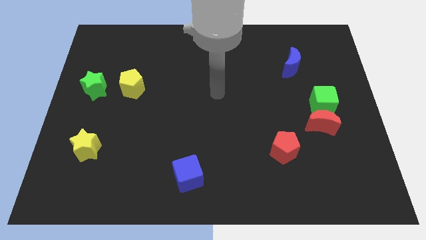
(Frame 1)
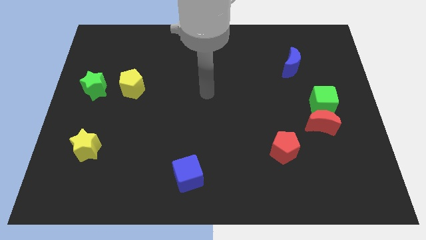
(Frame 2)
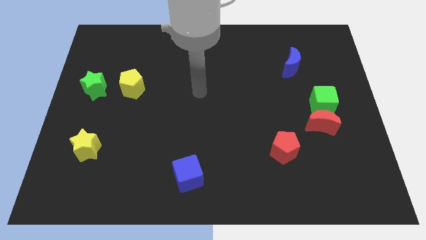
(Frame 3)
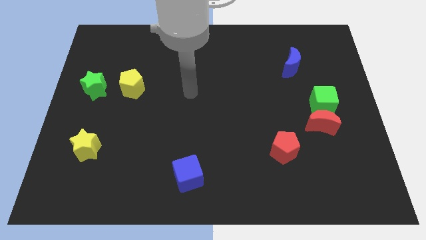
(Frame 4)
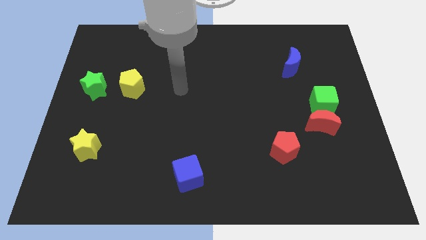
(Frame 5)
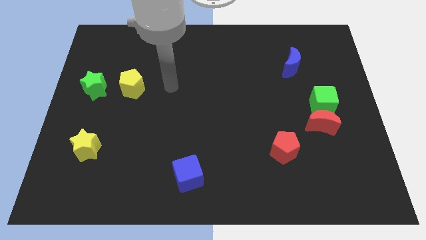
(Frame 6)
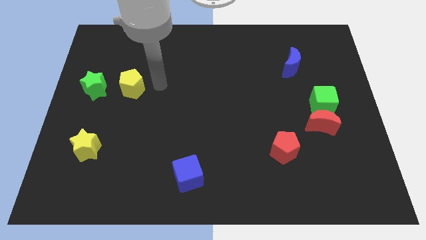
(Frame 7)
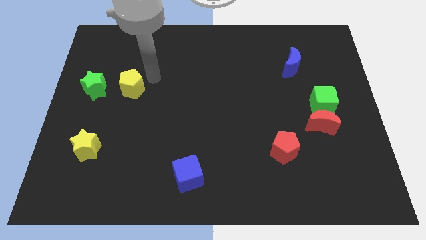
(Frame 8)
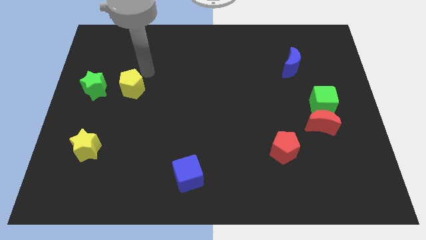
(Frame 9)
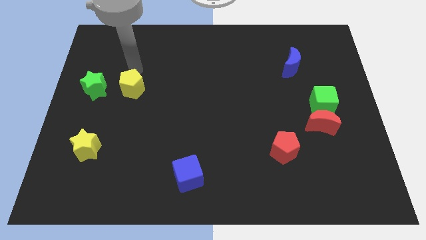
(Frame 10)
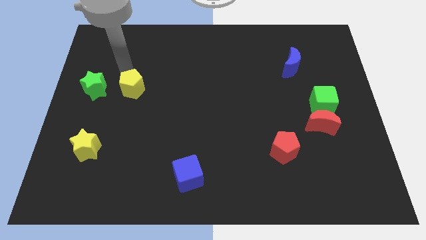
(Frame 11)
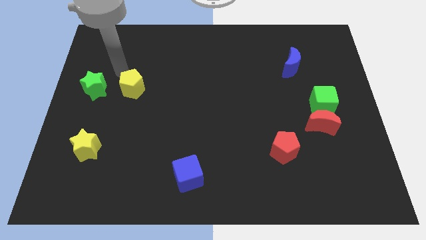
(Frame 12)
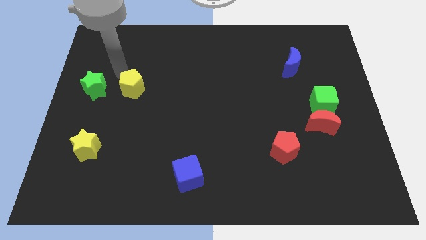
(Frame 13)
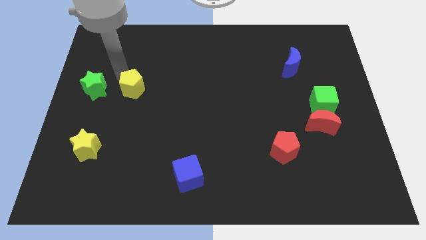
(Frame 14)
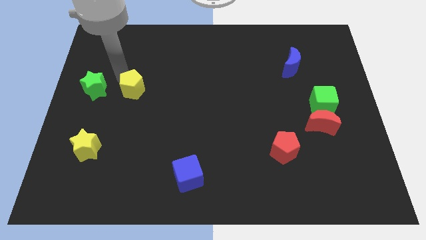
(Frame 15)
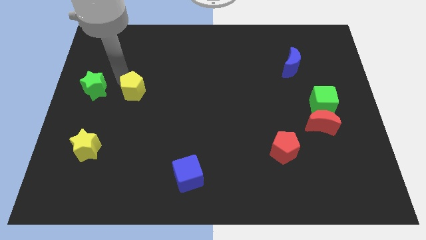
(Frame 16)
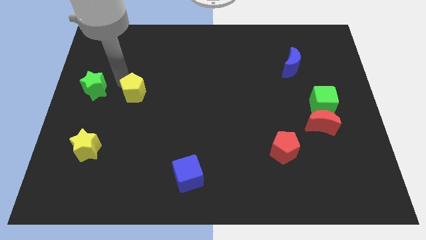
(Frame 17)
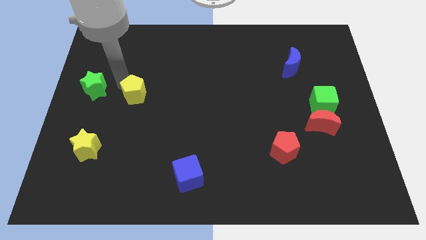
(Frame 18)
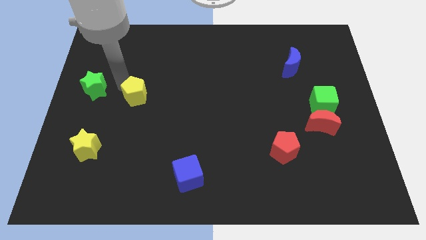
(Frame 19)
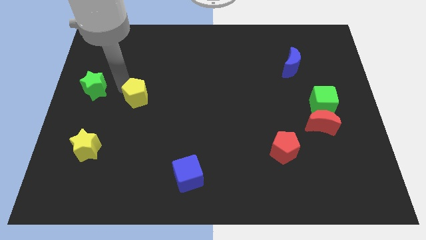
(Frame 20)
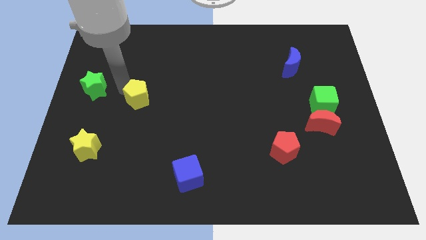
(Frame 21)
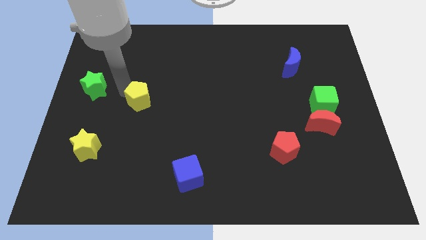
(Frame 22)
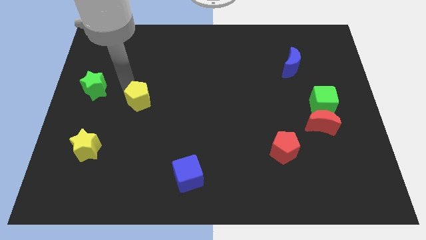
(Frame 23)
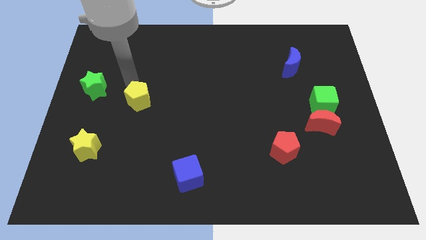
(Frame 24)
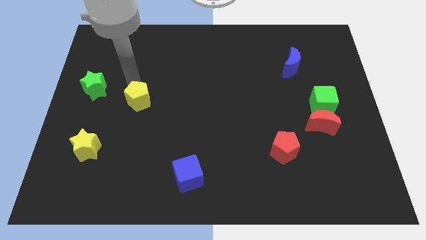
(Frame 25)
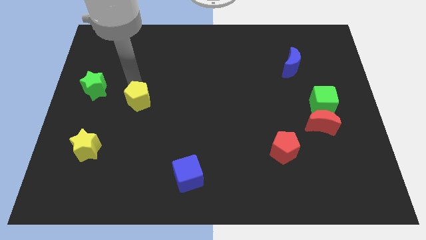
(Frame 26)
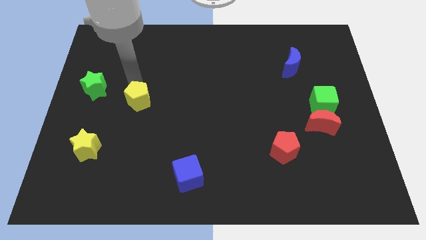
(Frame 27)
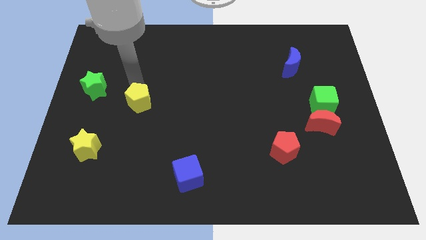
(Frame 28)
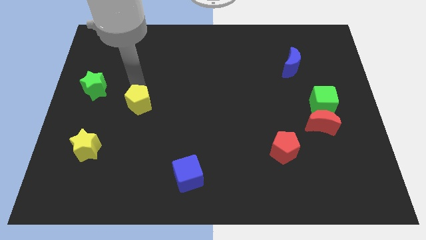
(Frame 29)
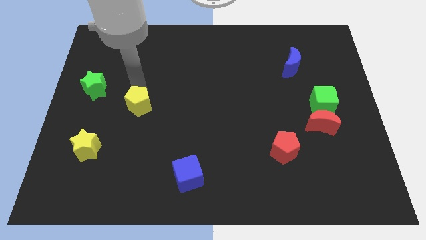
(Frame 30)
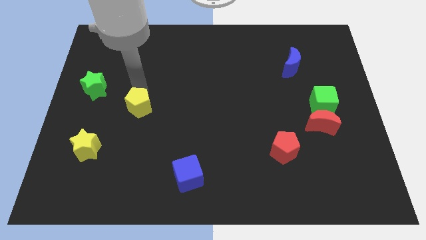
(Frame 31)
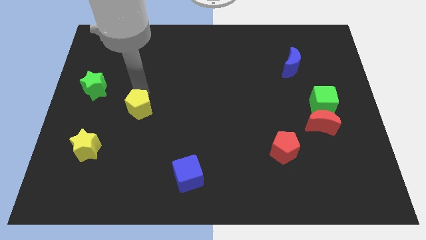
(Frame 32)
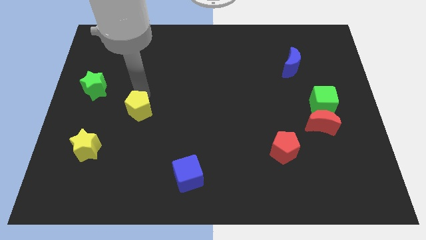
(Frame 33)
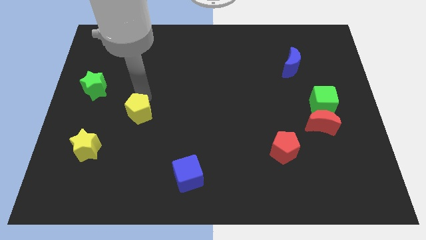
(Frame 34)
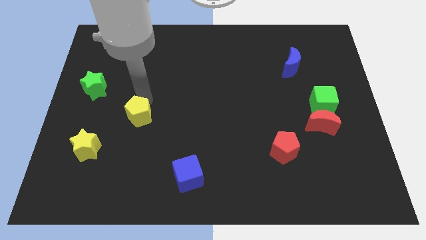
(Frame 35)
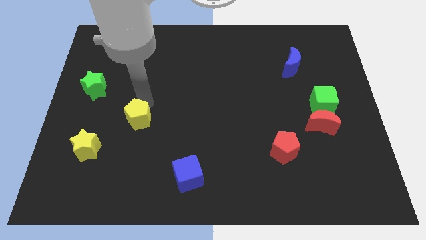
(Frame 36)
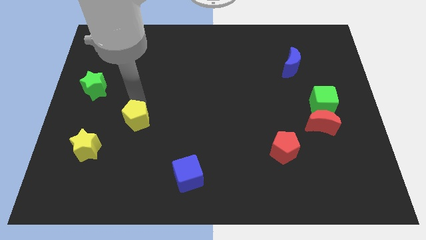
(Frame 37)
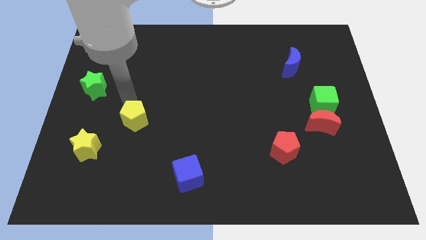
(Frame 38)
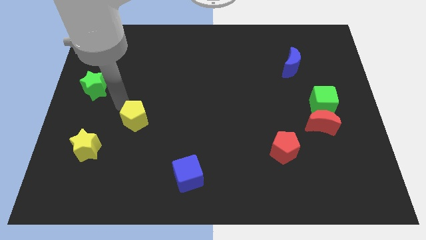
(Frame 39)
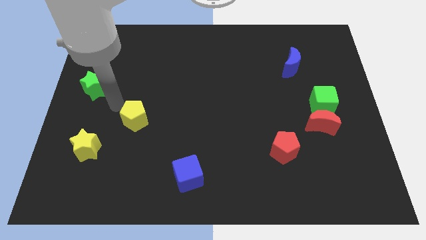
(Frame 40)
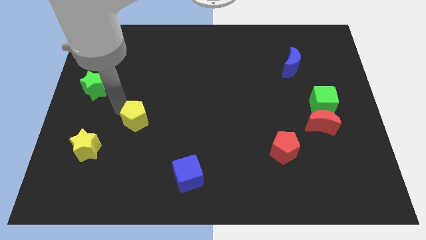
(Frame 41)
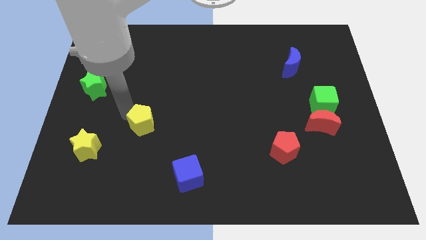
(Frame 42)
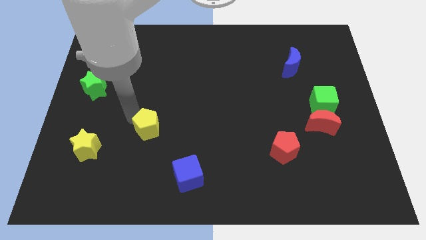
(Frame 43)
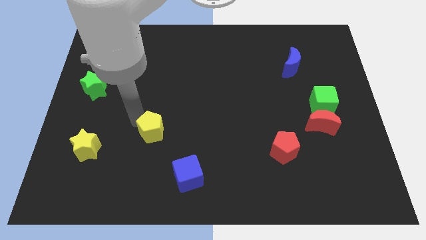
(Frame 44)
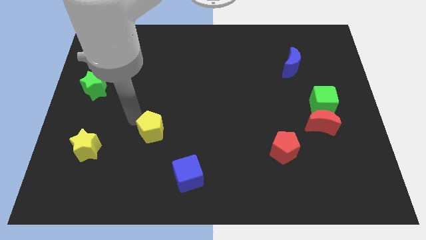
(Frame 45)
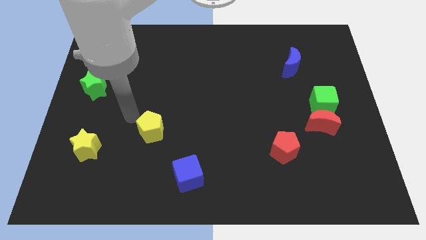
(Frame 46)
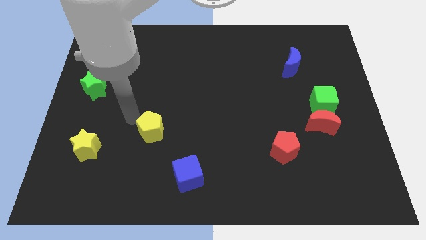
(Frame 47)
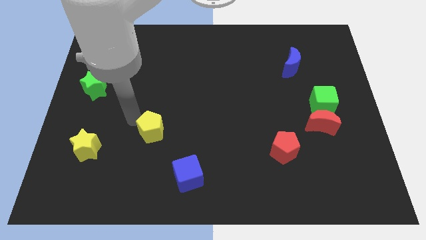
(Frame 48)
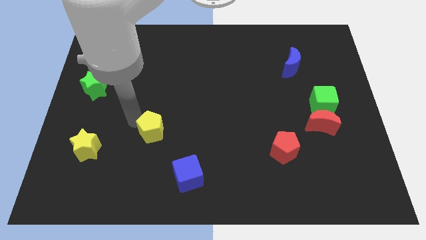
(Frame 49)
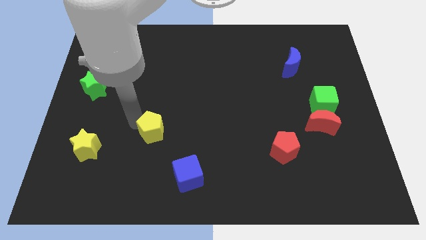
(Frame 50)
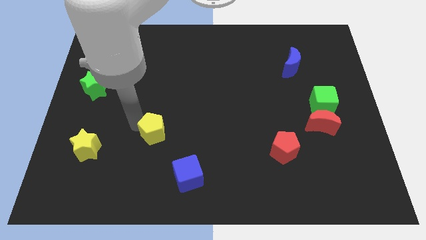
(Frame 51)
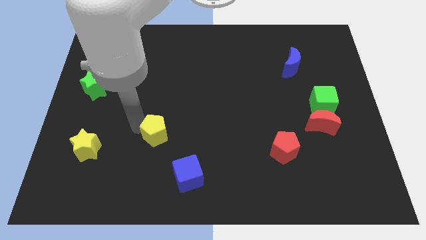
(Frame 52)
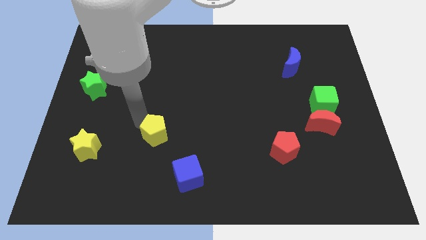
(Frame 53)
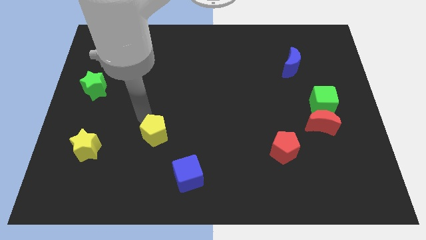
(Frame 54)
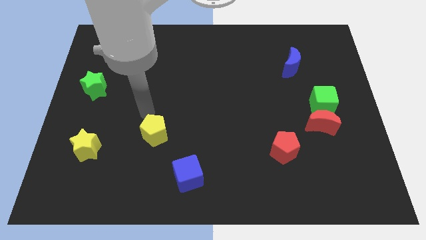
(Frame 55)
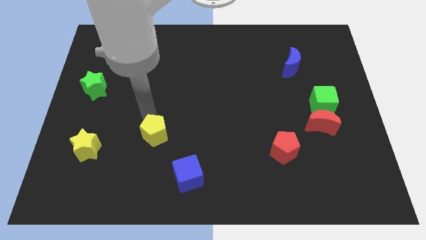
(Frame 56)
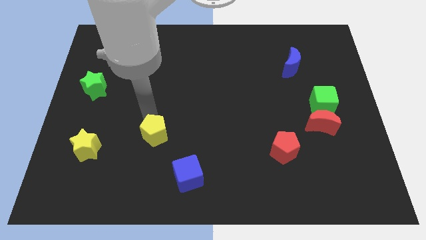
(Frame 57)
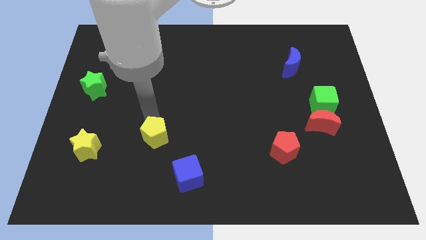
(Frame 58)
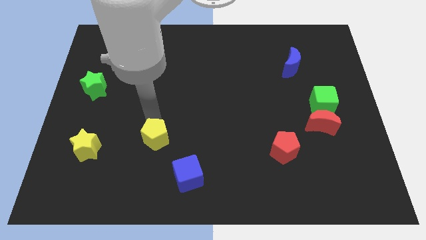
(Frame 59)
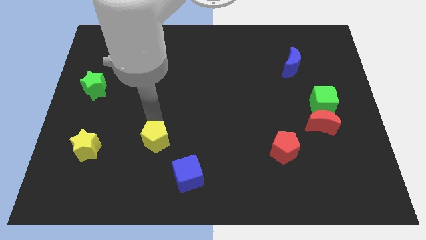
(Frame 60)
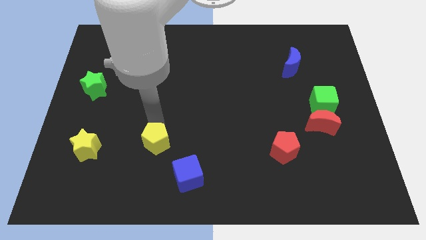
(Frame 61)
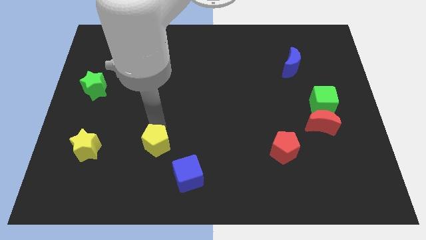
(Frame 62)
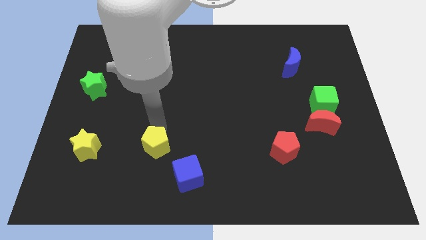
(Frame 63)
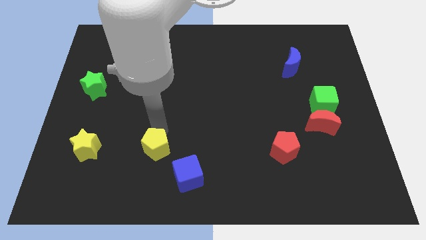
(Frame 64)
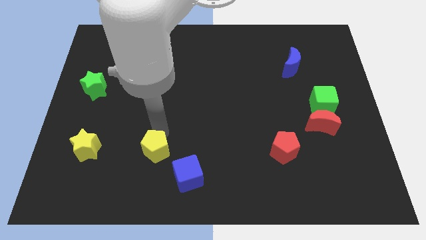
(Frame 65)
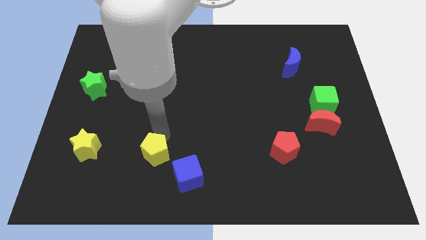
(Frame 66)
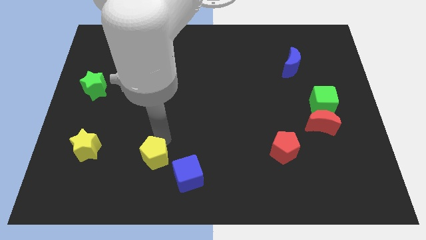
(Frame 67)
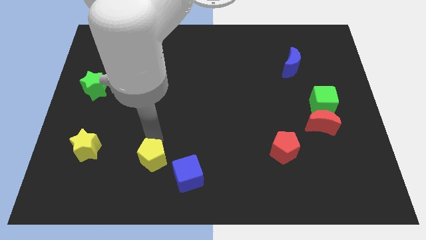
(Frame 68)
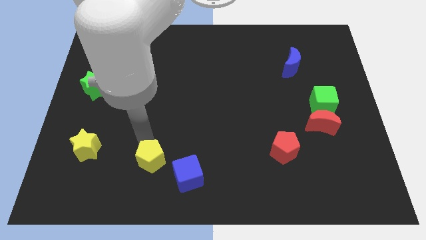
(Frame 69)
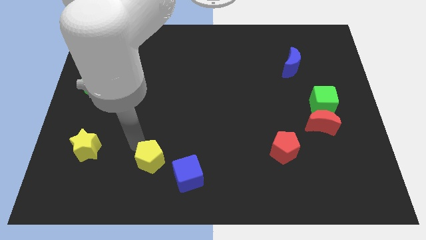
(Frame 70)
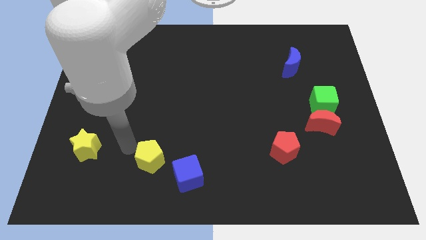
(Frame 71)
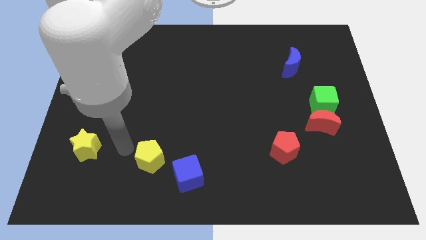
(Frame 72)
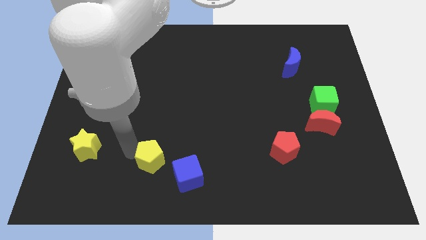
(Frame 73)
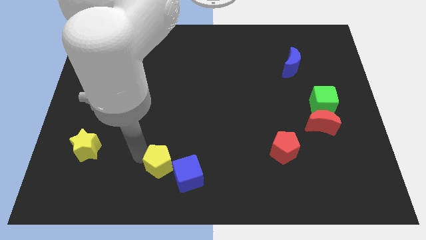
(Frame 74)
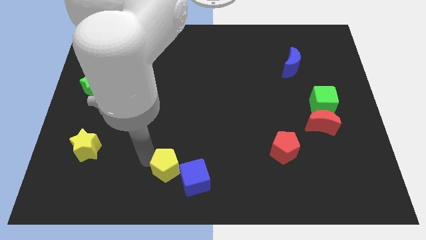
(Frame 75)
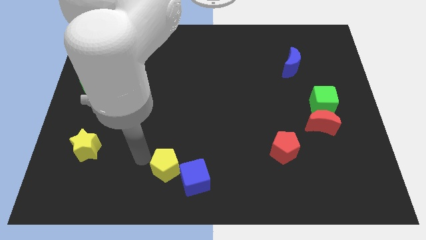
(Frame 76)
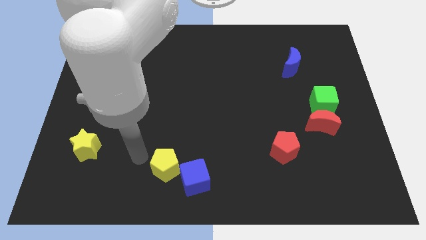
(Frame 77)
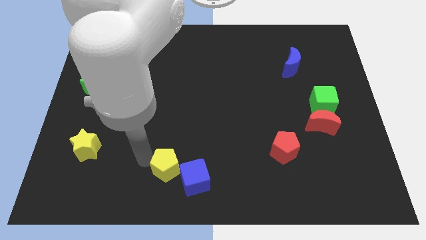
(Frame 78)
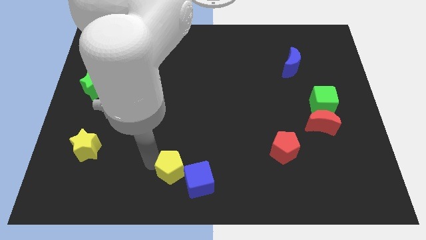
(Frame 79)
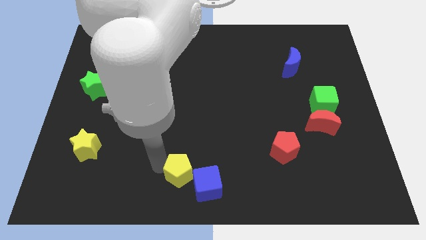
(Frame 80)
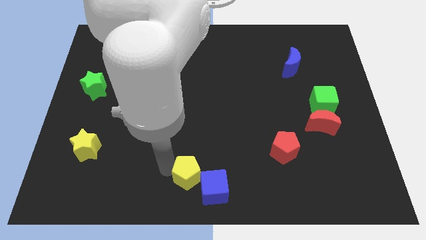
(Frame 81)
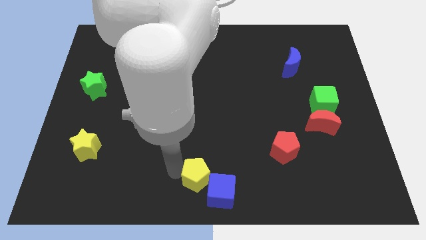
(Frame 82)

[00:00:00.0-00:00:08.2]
push the yellow pentagon next to the blue cube
